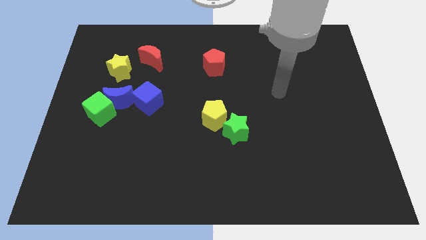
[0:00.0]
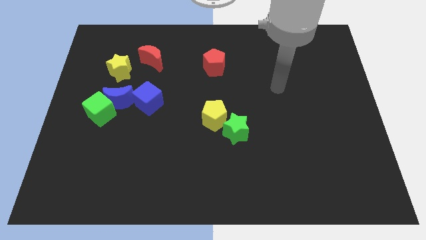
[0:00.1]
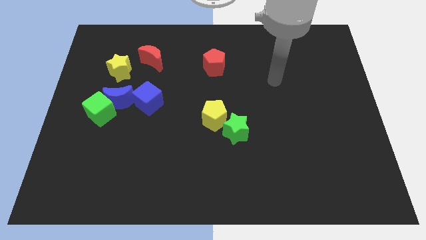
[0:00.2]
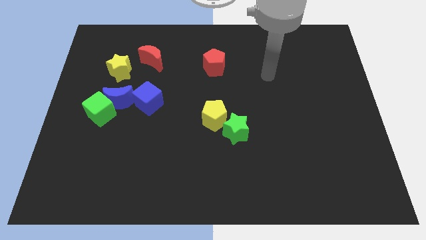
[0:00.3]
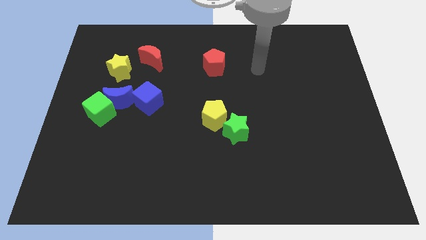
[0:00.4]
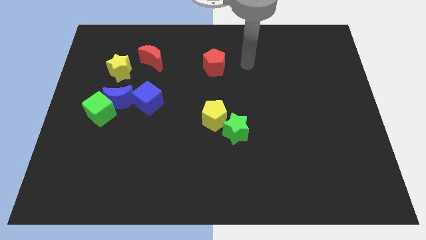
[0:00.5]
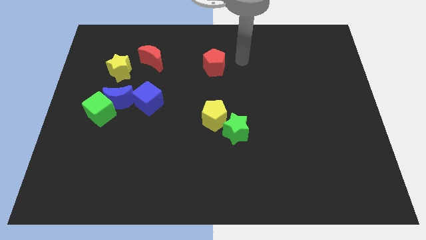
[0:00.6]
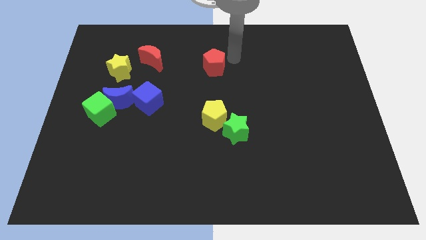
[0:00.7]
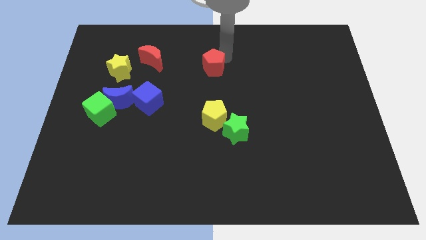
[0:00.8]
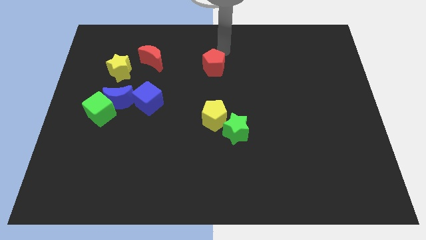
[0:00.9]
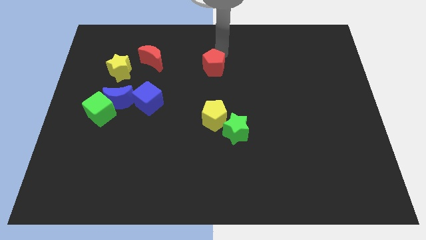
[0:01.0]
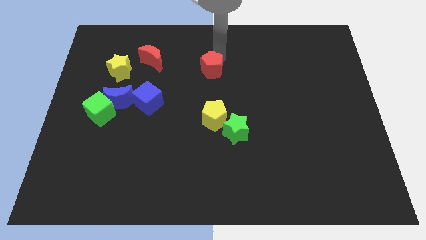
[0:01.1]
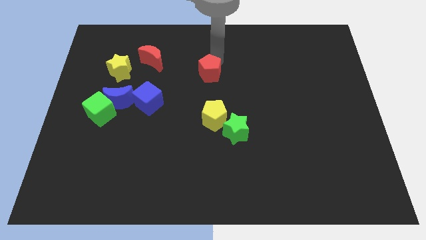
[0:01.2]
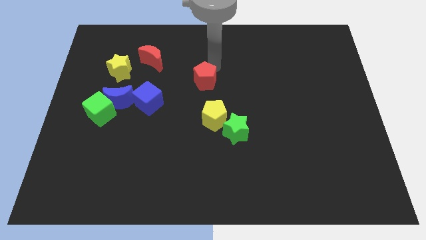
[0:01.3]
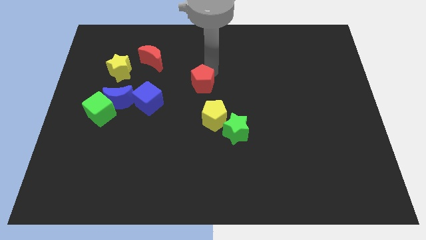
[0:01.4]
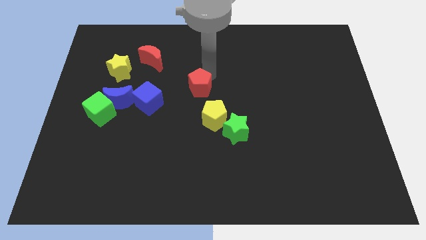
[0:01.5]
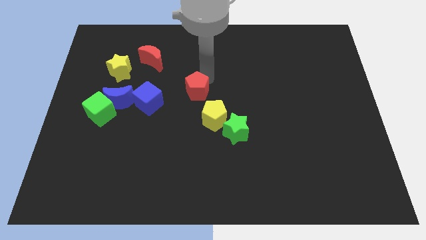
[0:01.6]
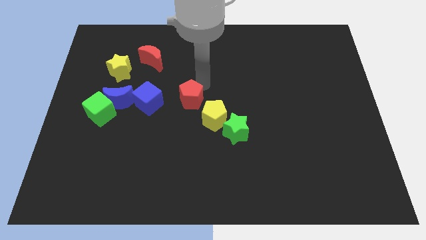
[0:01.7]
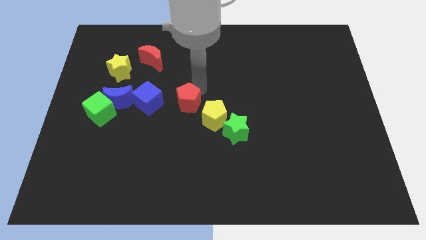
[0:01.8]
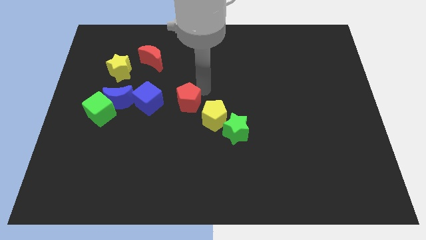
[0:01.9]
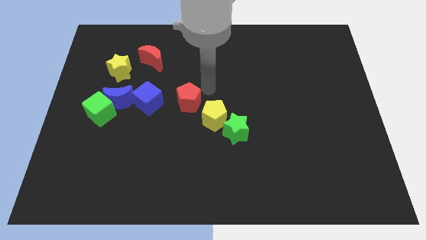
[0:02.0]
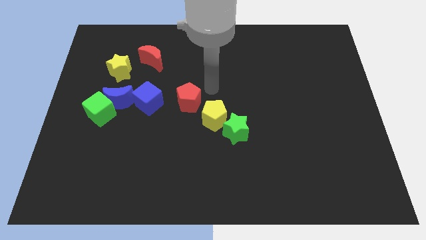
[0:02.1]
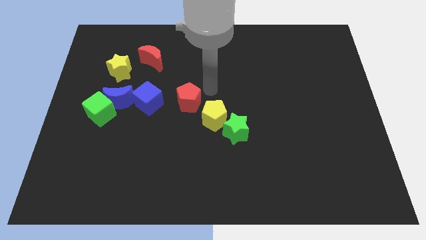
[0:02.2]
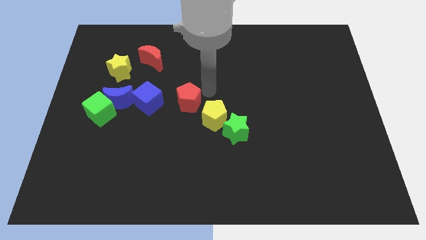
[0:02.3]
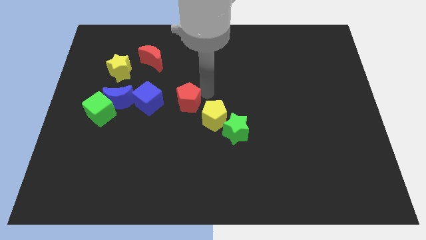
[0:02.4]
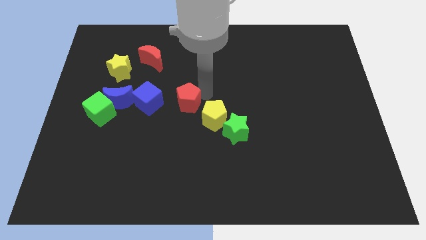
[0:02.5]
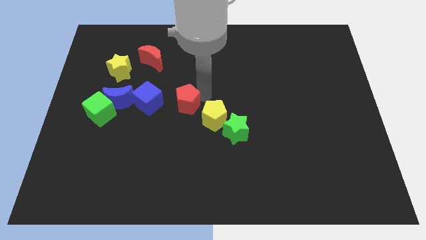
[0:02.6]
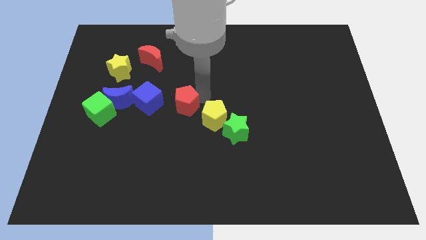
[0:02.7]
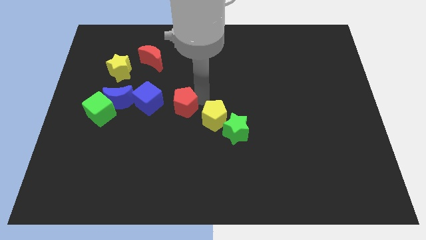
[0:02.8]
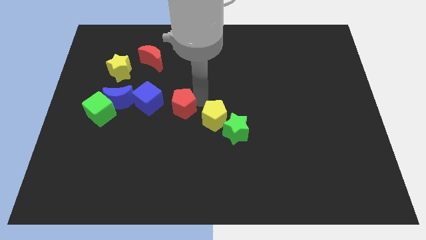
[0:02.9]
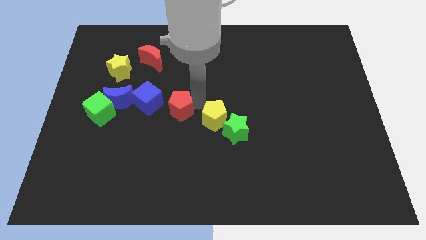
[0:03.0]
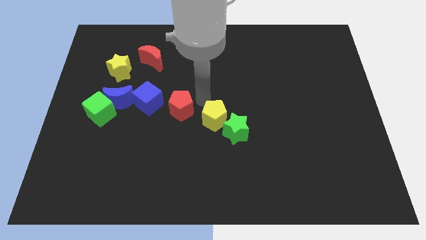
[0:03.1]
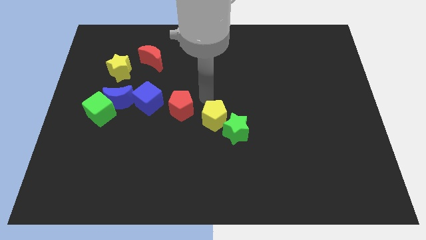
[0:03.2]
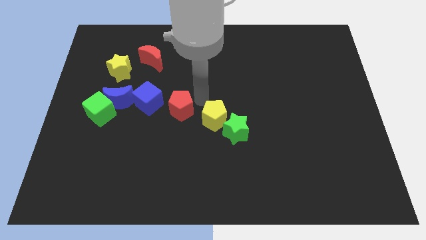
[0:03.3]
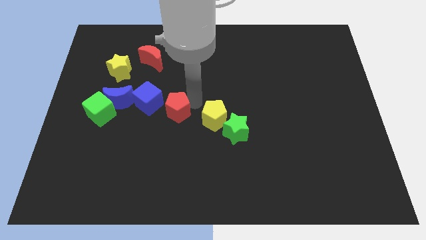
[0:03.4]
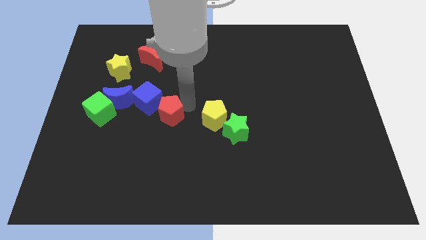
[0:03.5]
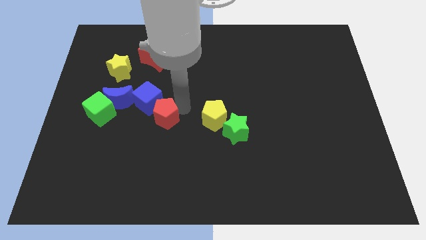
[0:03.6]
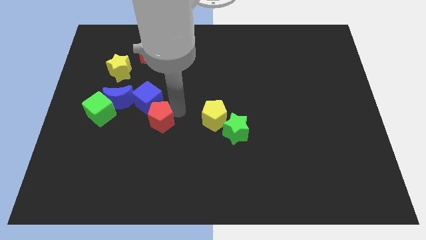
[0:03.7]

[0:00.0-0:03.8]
slide the red pentagon downwards and then left

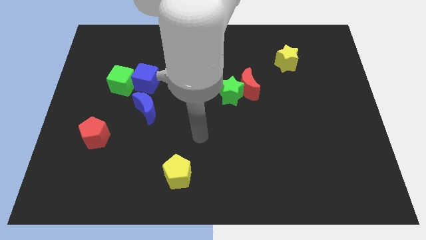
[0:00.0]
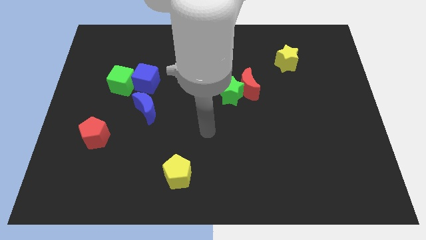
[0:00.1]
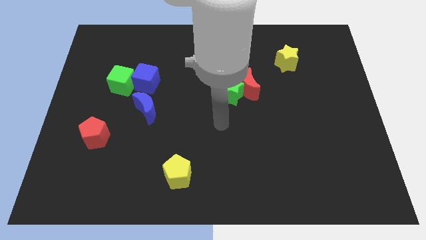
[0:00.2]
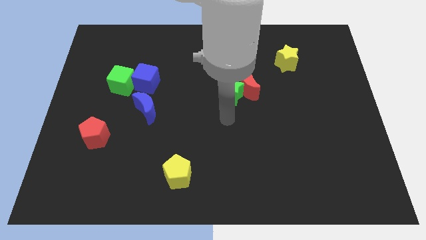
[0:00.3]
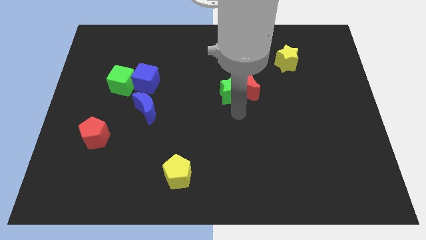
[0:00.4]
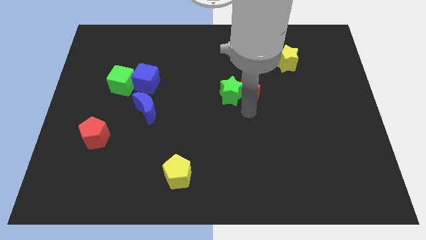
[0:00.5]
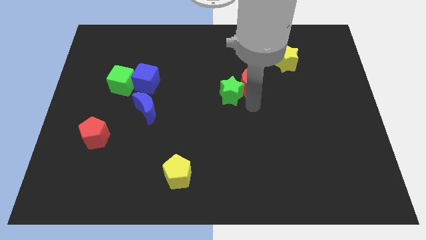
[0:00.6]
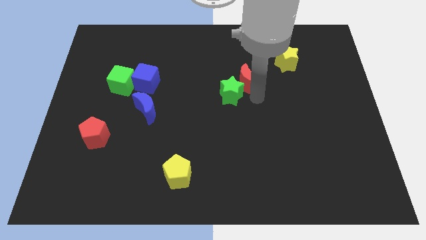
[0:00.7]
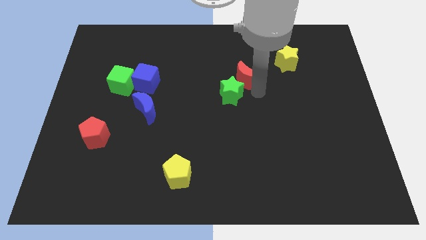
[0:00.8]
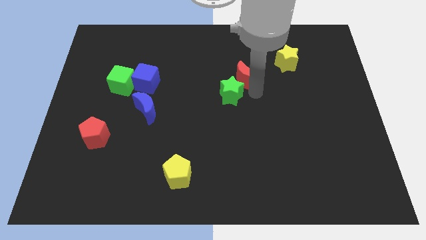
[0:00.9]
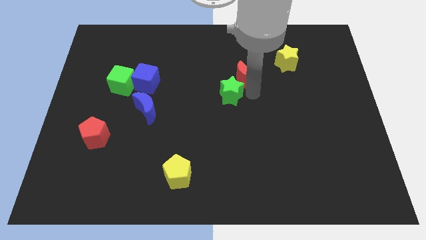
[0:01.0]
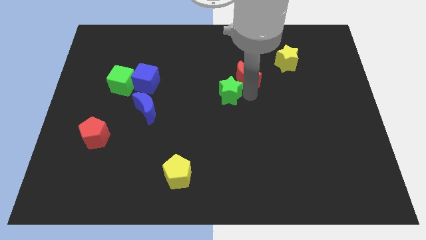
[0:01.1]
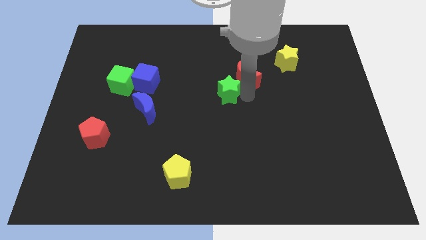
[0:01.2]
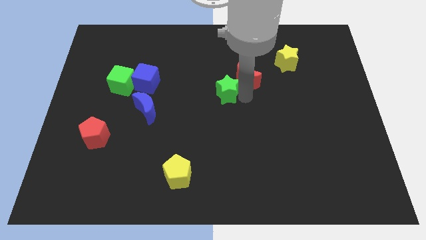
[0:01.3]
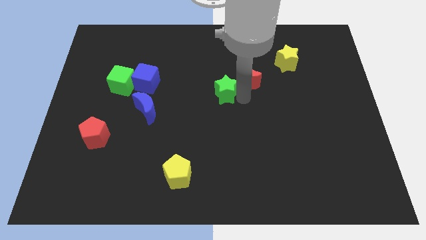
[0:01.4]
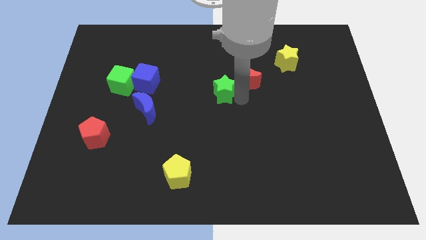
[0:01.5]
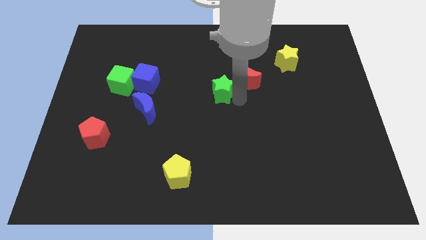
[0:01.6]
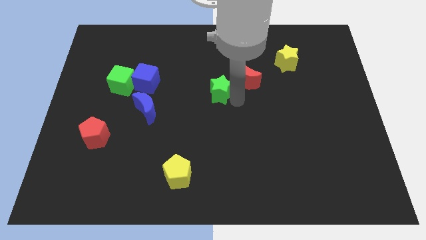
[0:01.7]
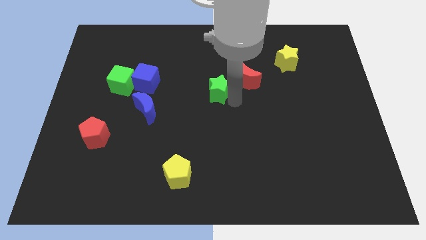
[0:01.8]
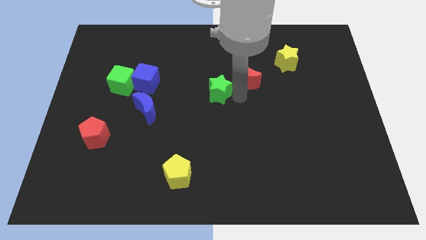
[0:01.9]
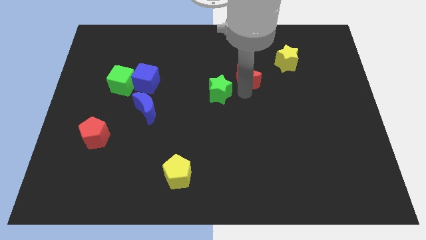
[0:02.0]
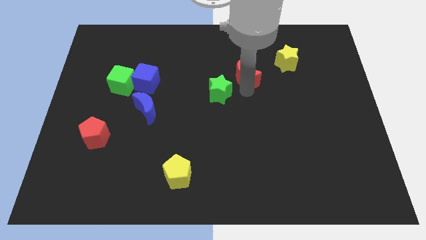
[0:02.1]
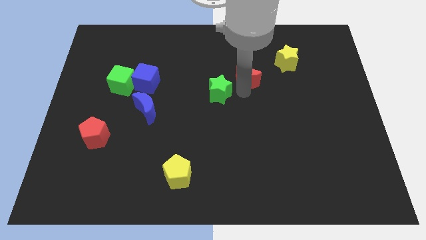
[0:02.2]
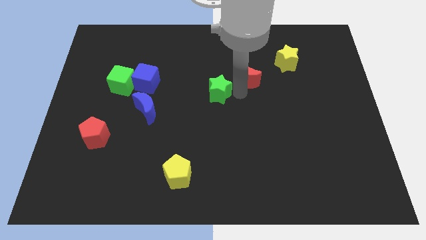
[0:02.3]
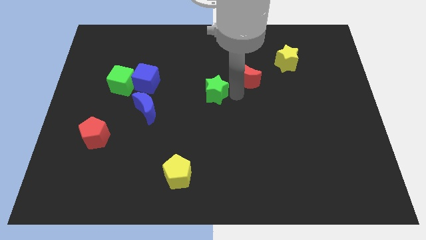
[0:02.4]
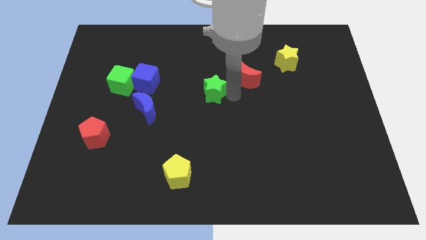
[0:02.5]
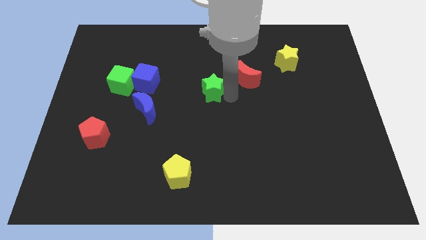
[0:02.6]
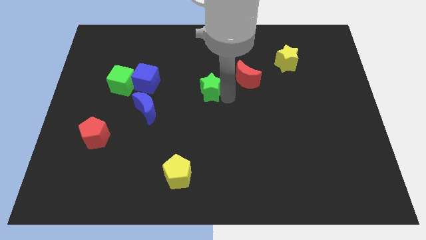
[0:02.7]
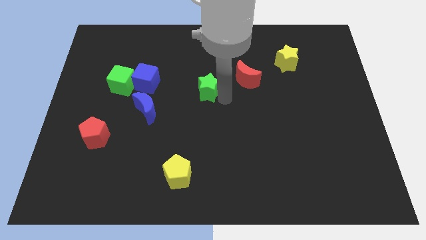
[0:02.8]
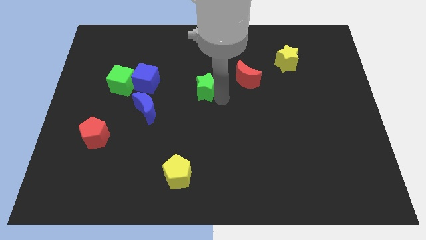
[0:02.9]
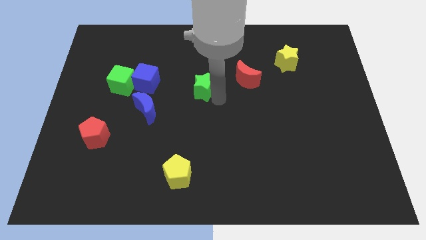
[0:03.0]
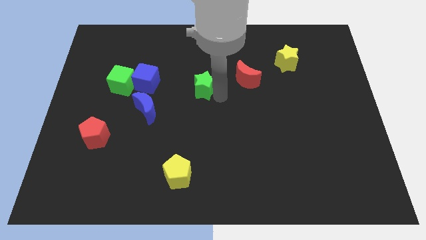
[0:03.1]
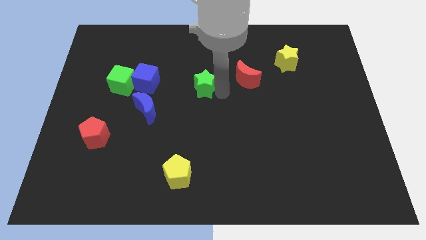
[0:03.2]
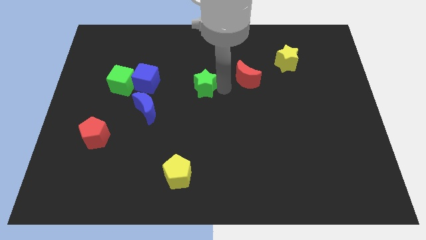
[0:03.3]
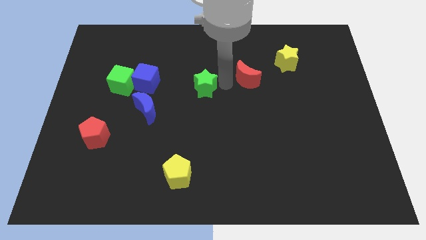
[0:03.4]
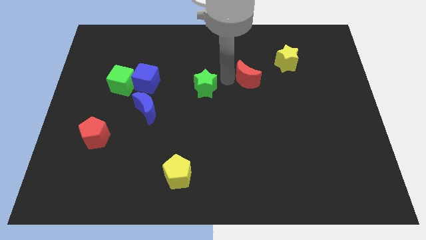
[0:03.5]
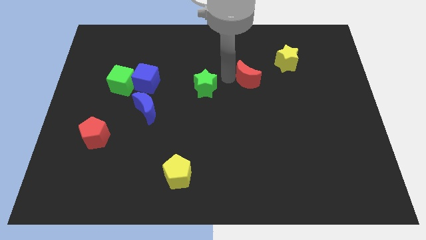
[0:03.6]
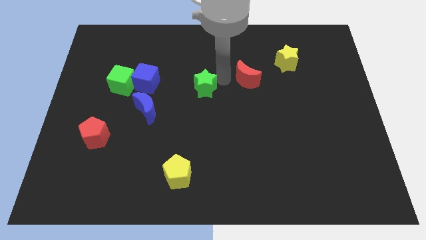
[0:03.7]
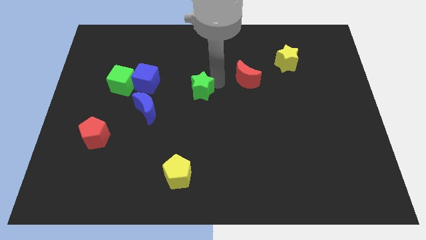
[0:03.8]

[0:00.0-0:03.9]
push the green star a little left
